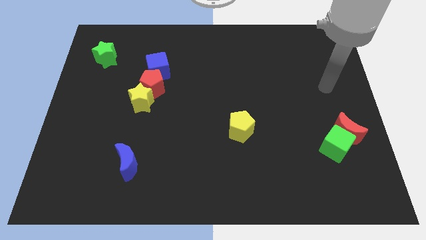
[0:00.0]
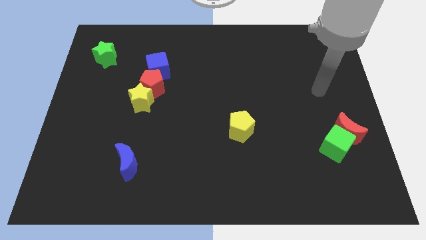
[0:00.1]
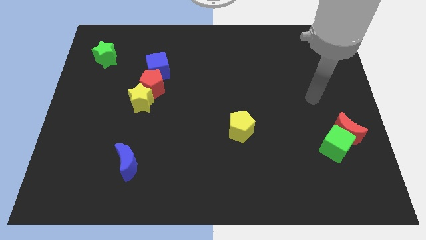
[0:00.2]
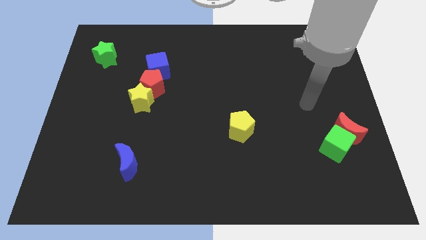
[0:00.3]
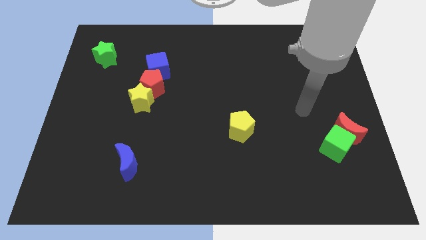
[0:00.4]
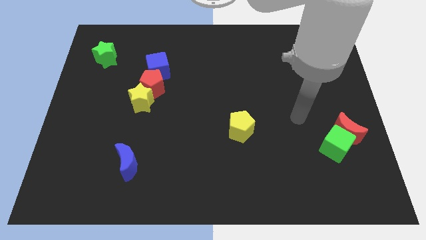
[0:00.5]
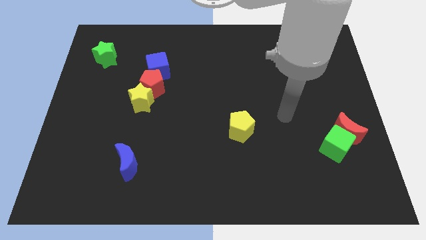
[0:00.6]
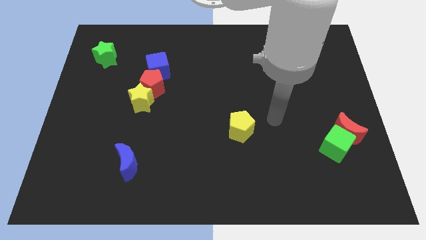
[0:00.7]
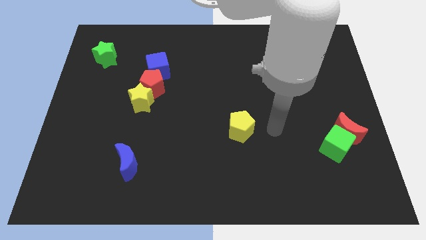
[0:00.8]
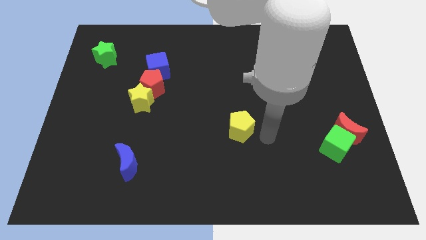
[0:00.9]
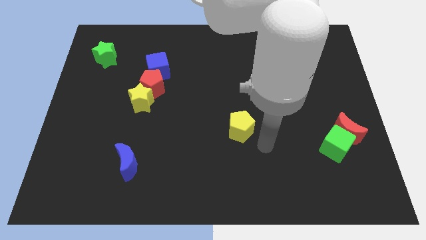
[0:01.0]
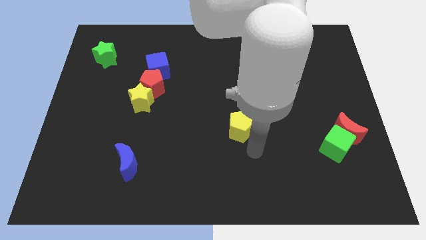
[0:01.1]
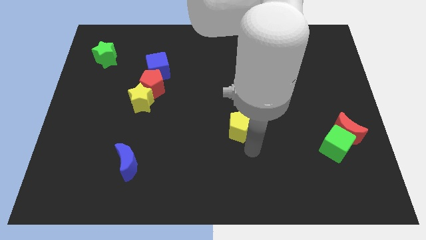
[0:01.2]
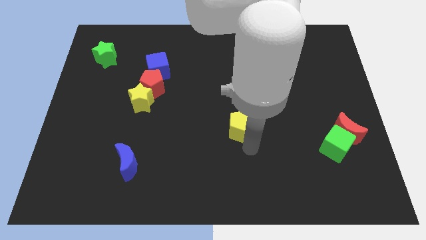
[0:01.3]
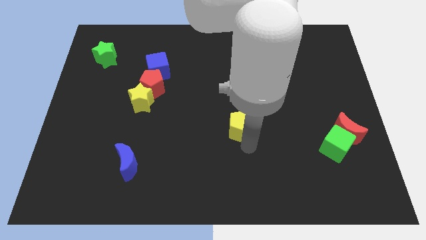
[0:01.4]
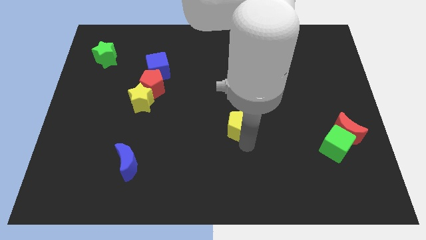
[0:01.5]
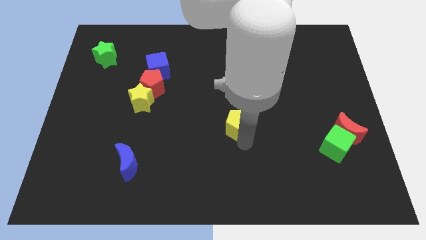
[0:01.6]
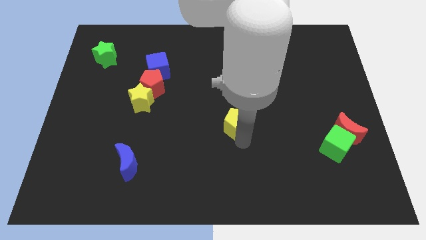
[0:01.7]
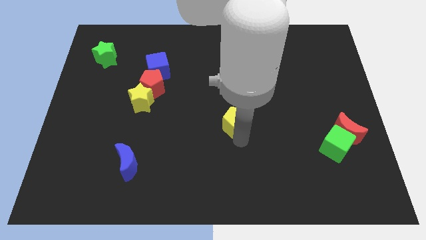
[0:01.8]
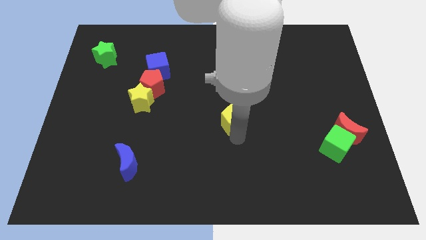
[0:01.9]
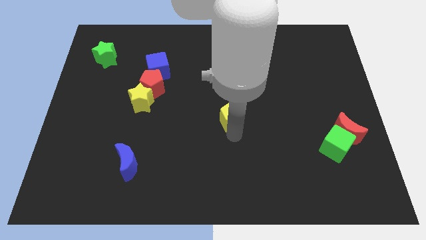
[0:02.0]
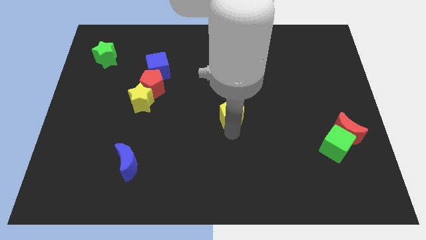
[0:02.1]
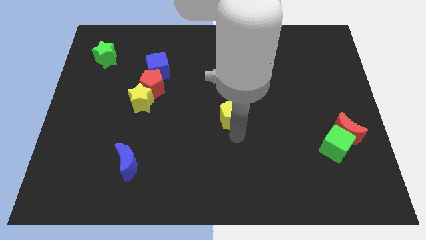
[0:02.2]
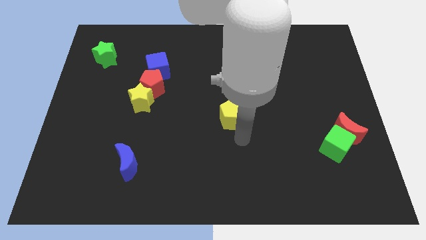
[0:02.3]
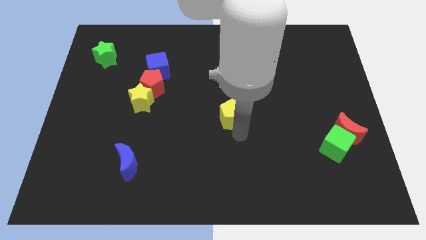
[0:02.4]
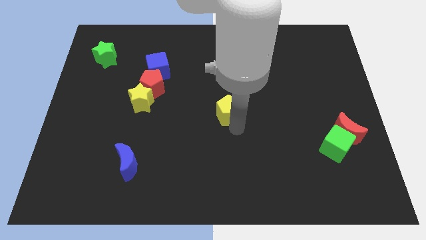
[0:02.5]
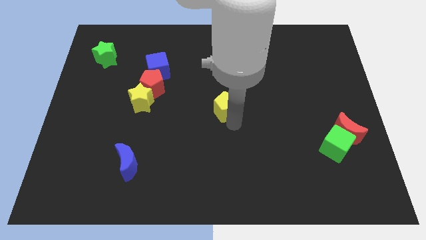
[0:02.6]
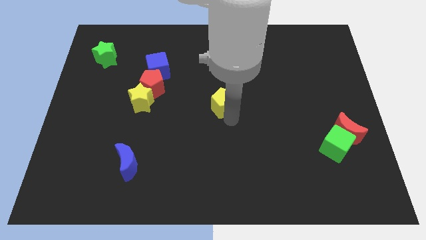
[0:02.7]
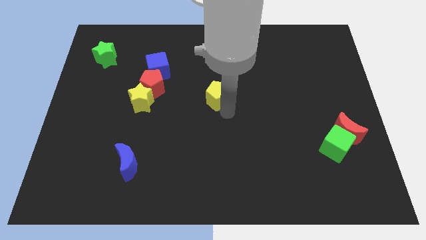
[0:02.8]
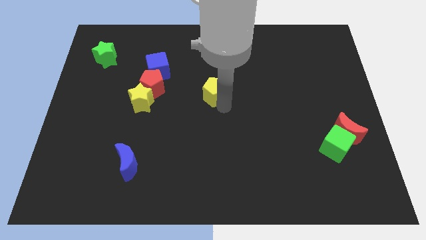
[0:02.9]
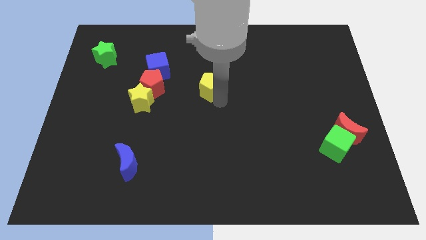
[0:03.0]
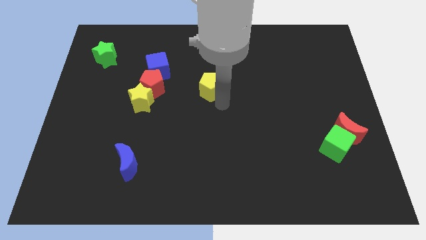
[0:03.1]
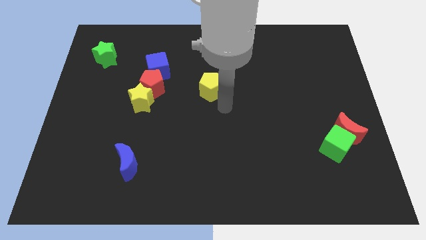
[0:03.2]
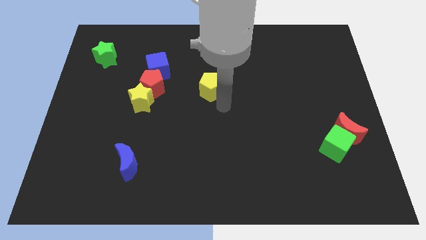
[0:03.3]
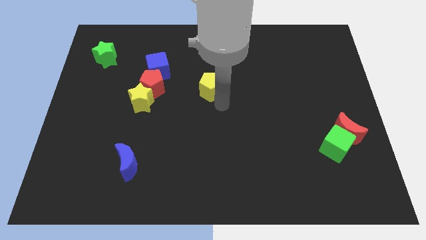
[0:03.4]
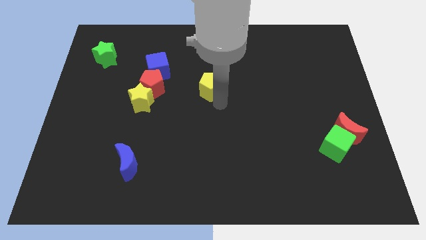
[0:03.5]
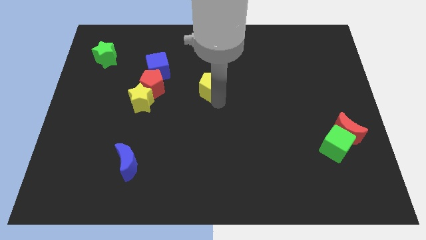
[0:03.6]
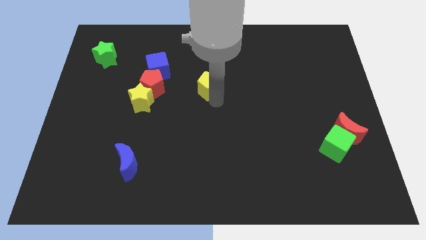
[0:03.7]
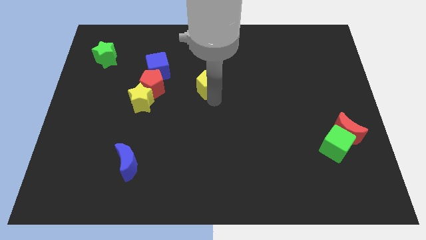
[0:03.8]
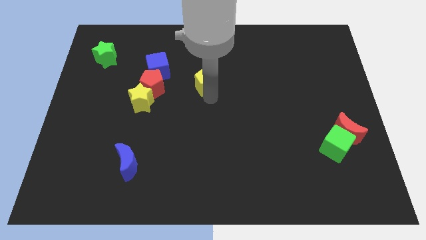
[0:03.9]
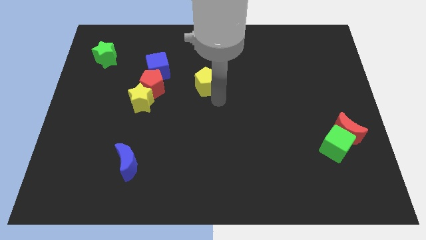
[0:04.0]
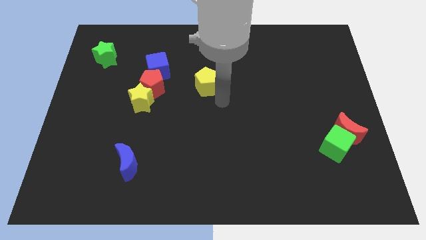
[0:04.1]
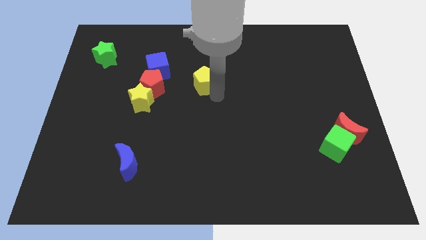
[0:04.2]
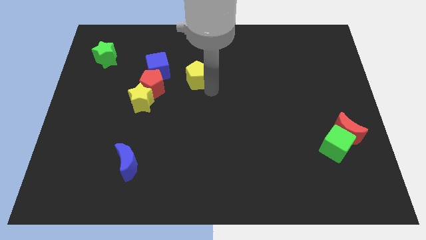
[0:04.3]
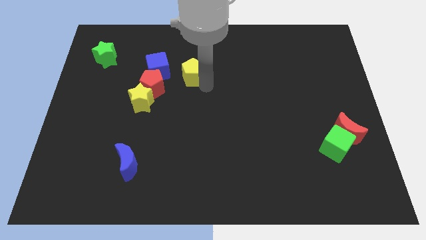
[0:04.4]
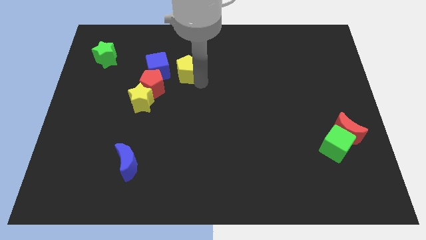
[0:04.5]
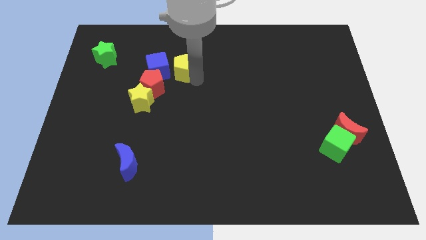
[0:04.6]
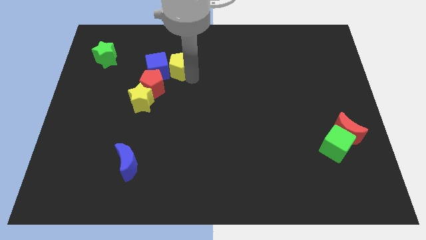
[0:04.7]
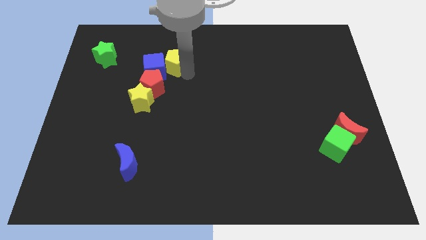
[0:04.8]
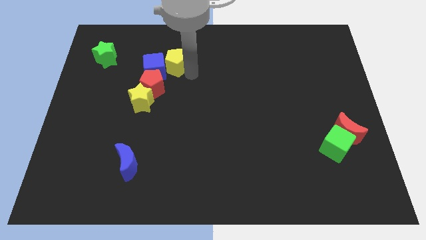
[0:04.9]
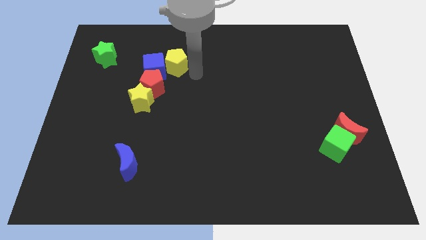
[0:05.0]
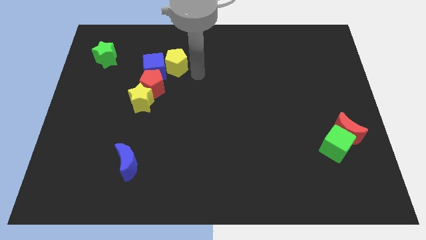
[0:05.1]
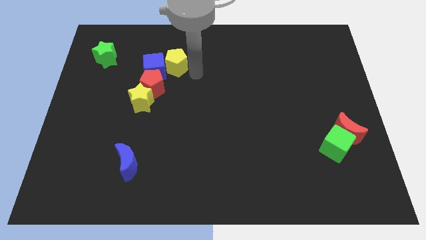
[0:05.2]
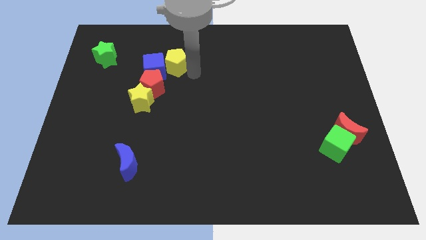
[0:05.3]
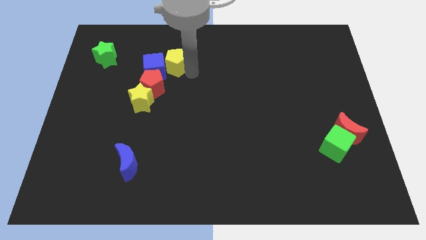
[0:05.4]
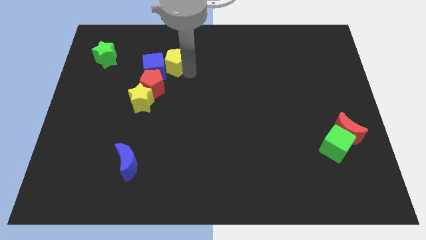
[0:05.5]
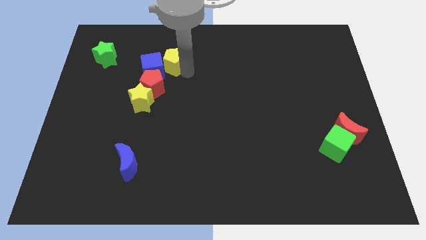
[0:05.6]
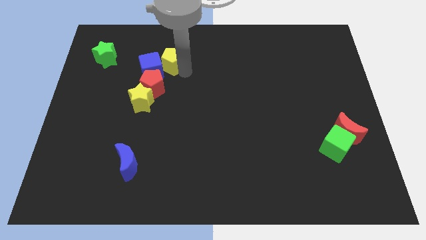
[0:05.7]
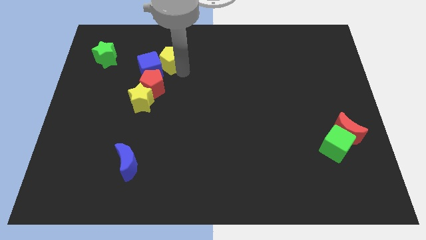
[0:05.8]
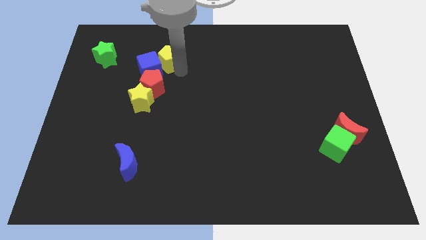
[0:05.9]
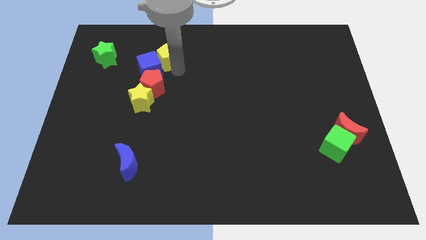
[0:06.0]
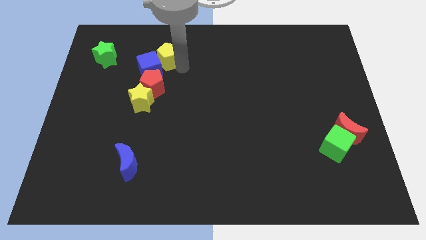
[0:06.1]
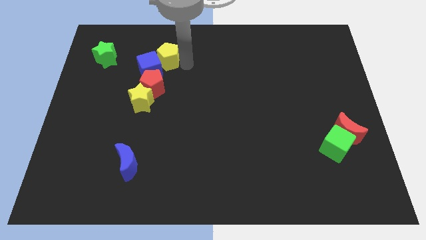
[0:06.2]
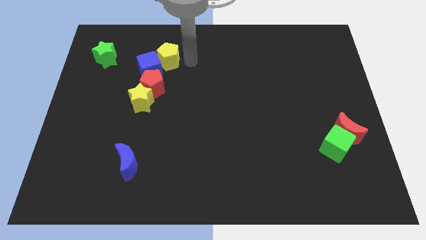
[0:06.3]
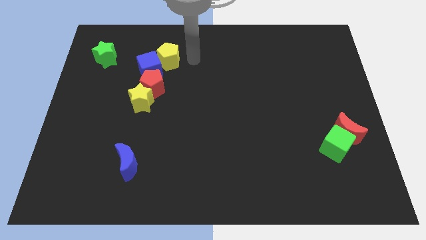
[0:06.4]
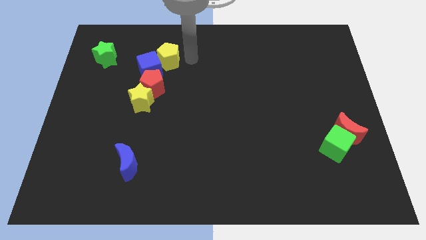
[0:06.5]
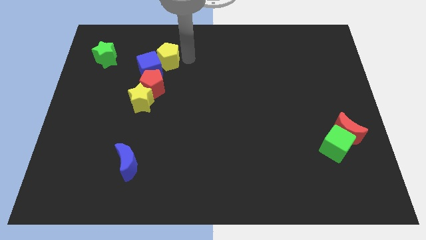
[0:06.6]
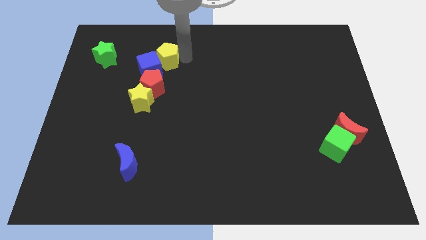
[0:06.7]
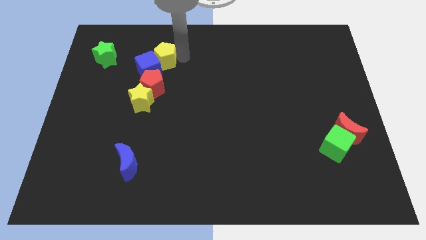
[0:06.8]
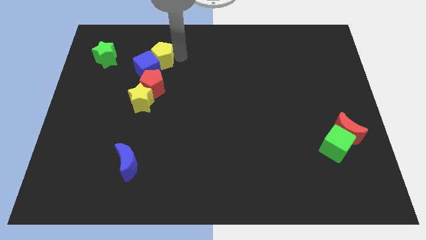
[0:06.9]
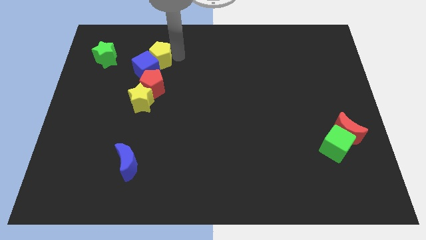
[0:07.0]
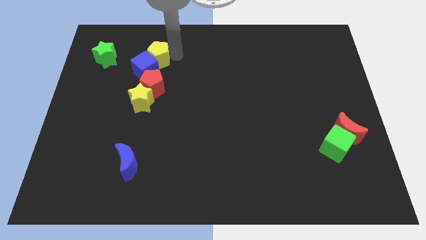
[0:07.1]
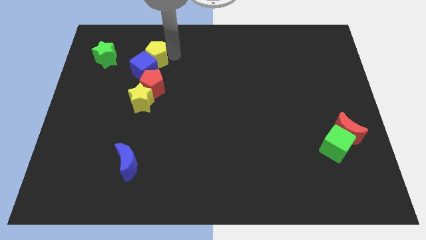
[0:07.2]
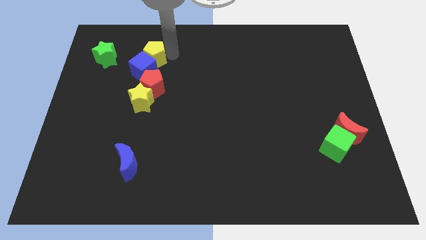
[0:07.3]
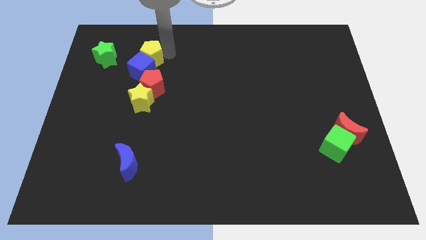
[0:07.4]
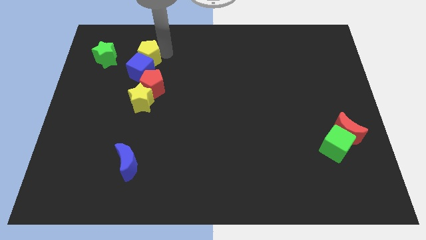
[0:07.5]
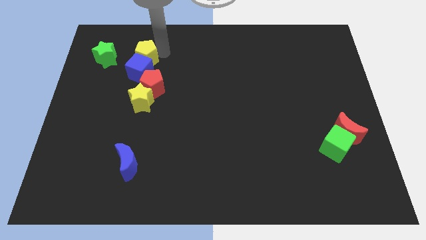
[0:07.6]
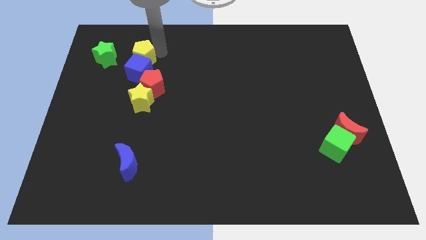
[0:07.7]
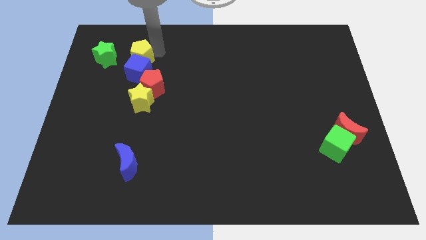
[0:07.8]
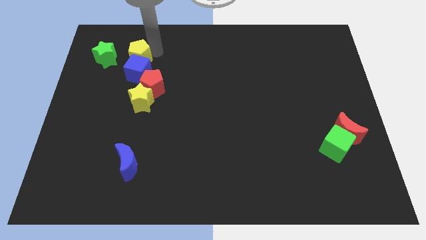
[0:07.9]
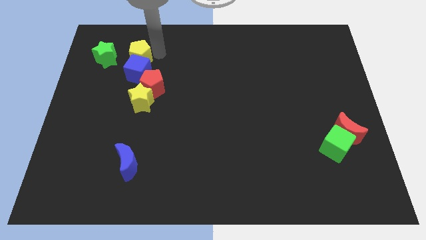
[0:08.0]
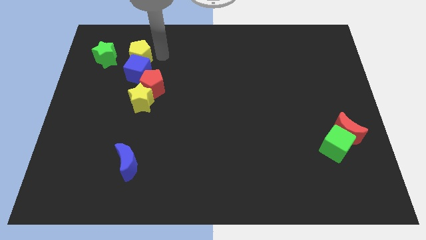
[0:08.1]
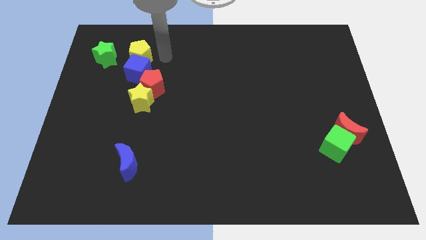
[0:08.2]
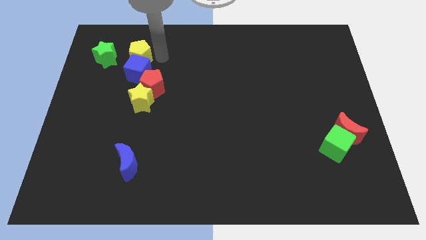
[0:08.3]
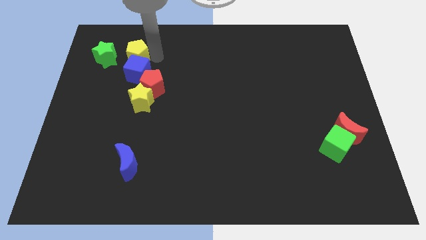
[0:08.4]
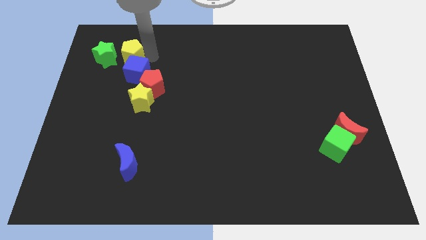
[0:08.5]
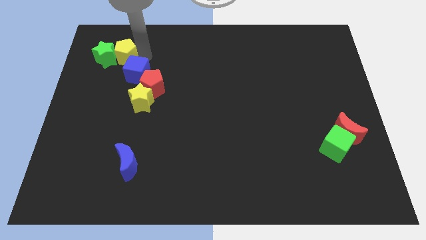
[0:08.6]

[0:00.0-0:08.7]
move the yellow pentagon to the green star
